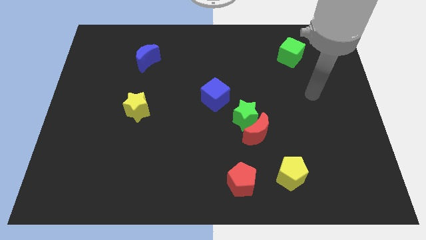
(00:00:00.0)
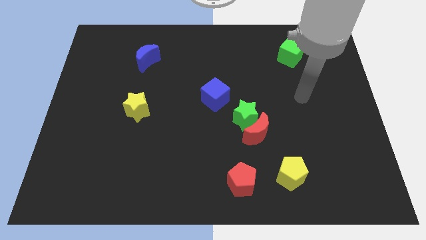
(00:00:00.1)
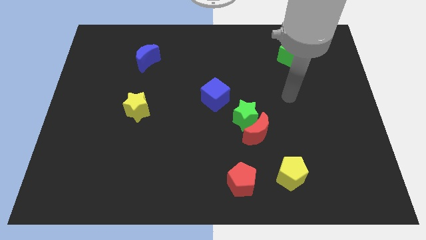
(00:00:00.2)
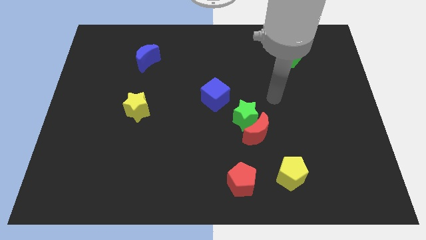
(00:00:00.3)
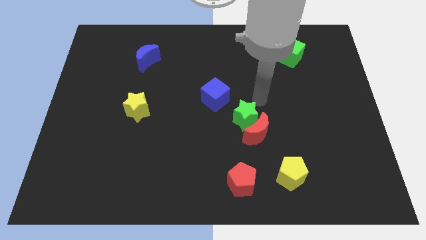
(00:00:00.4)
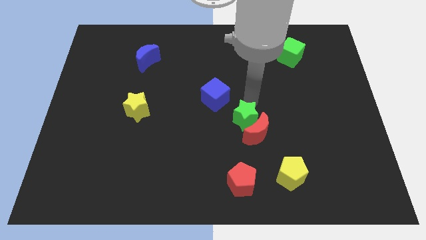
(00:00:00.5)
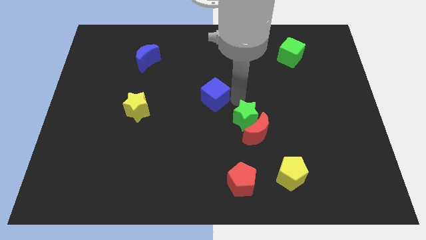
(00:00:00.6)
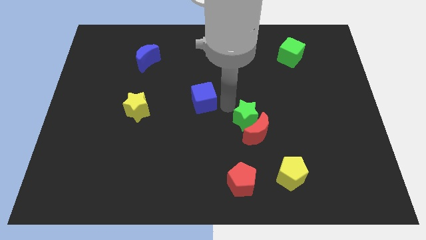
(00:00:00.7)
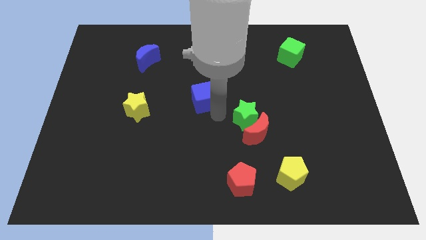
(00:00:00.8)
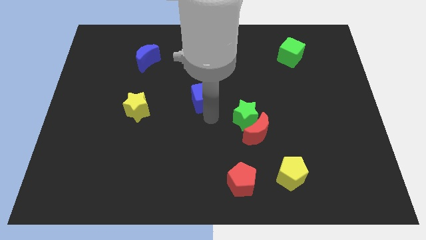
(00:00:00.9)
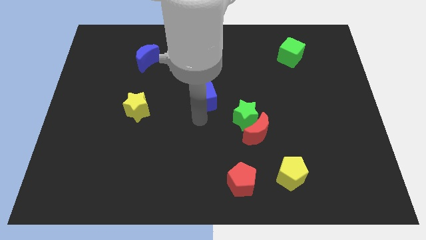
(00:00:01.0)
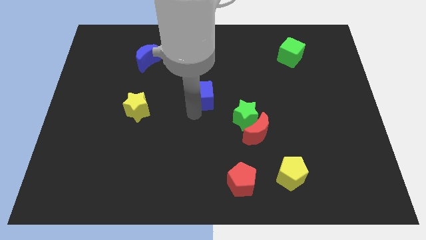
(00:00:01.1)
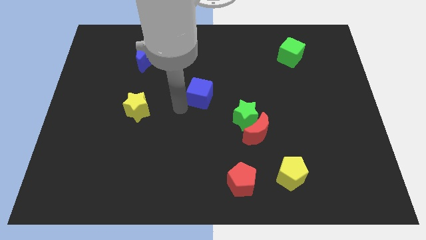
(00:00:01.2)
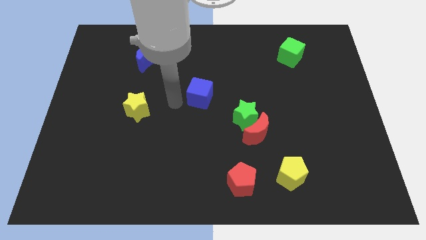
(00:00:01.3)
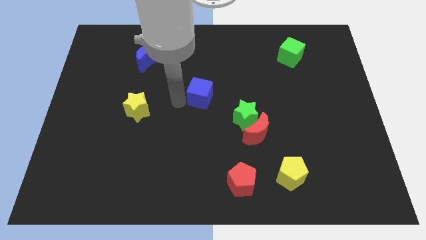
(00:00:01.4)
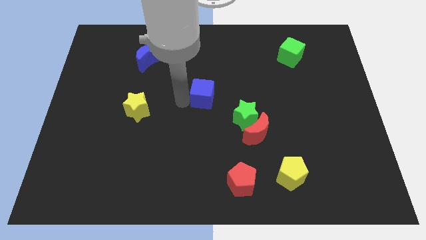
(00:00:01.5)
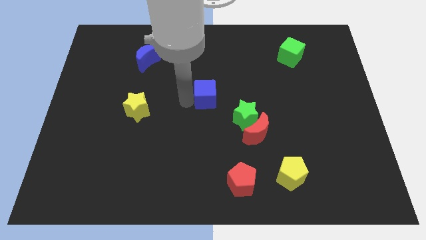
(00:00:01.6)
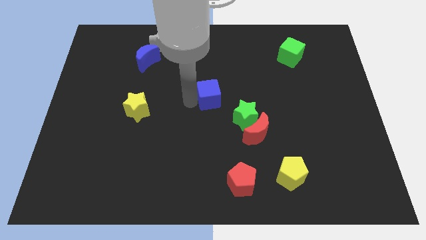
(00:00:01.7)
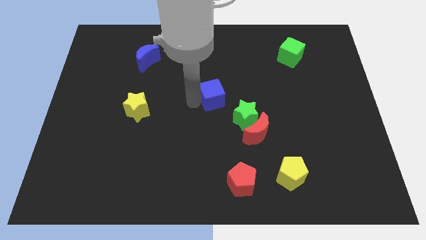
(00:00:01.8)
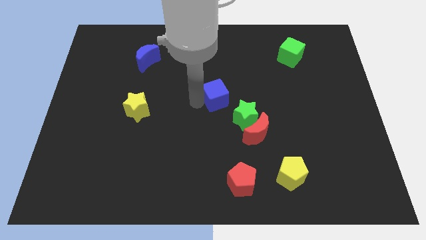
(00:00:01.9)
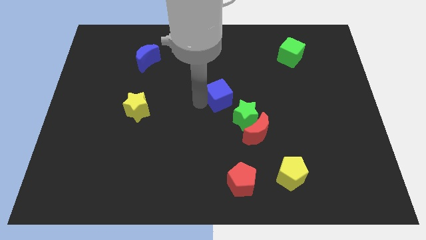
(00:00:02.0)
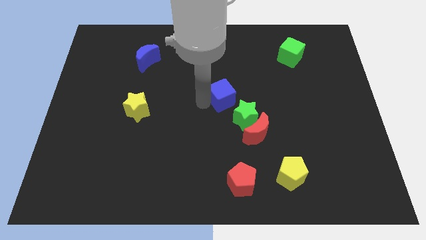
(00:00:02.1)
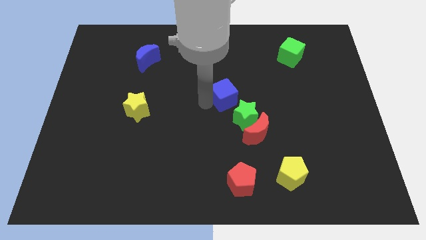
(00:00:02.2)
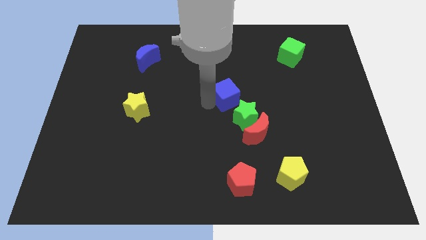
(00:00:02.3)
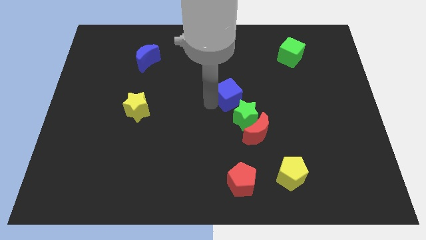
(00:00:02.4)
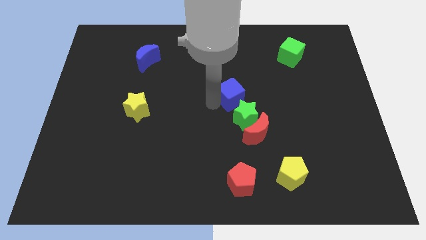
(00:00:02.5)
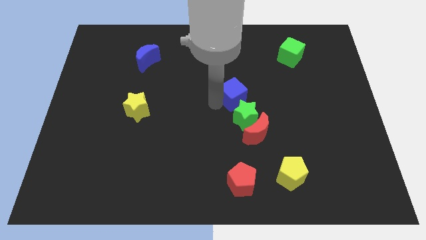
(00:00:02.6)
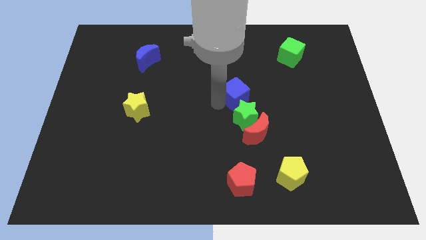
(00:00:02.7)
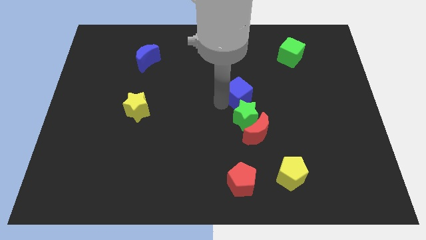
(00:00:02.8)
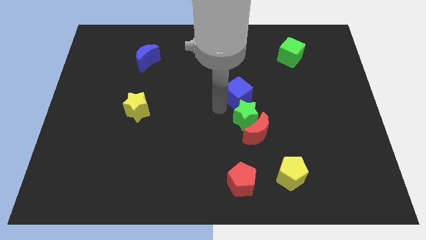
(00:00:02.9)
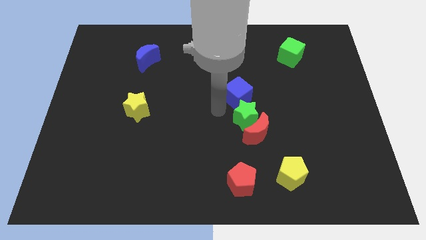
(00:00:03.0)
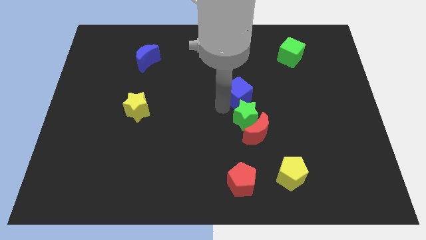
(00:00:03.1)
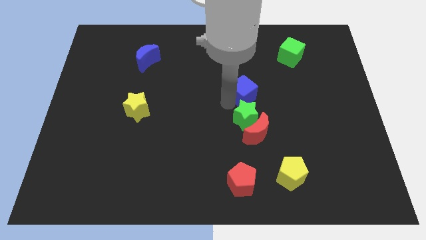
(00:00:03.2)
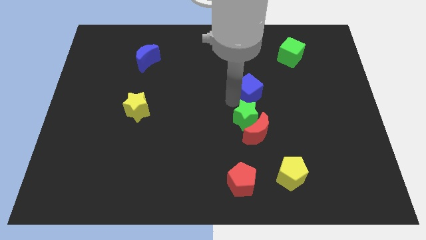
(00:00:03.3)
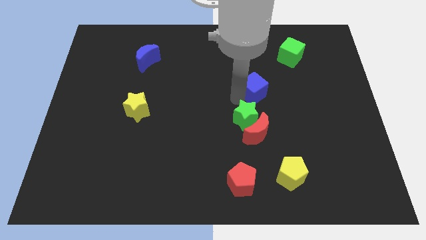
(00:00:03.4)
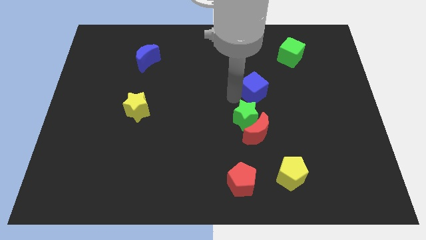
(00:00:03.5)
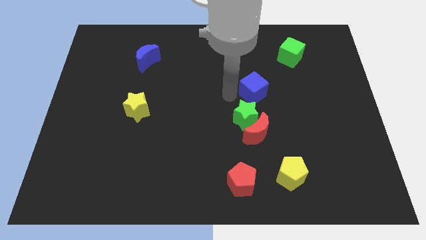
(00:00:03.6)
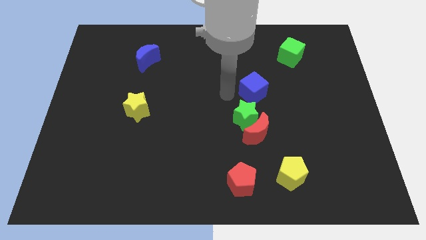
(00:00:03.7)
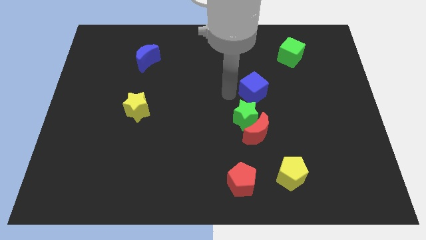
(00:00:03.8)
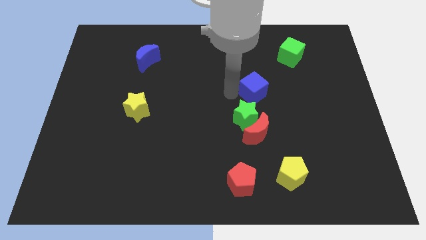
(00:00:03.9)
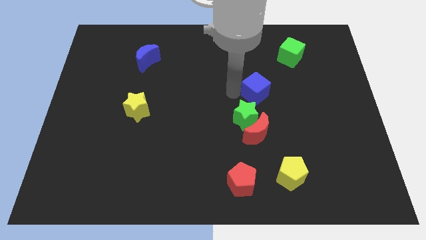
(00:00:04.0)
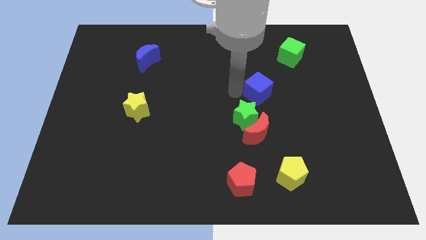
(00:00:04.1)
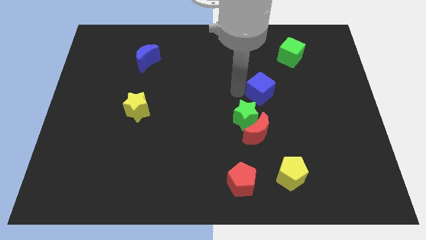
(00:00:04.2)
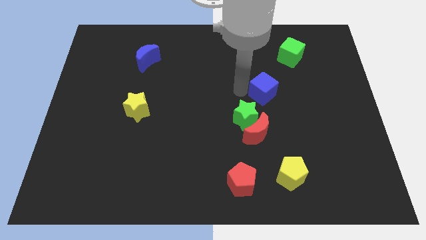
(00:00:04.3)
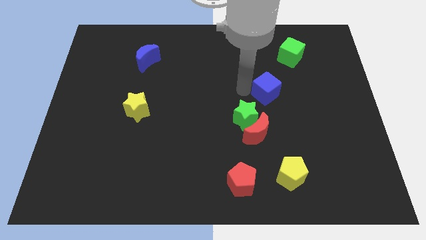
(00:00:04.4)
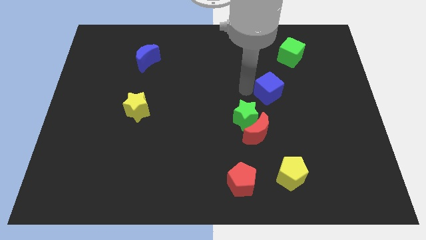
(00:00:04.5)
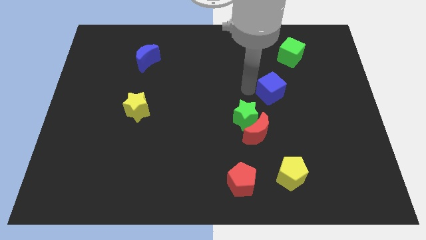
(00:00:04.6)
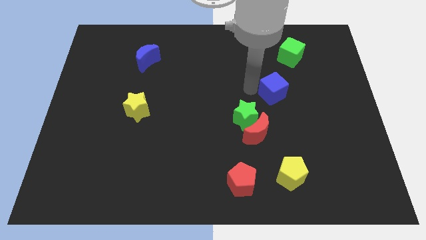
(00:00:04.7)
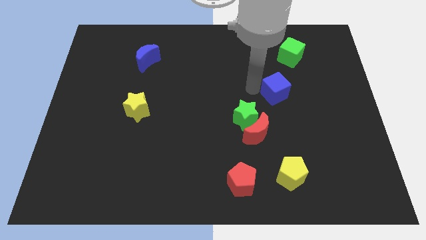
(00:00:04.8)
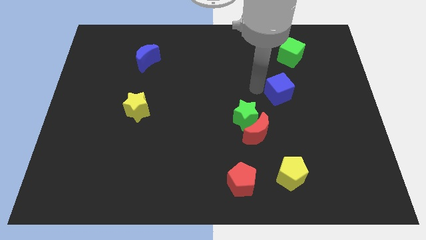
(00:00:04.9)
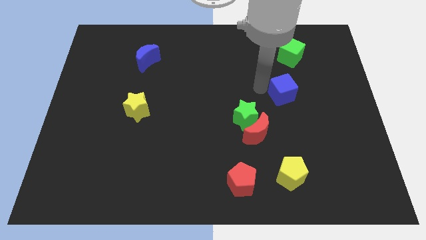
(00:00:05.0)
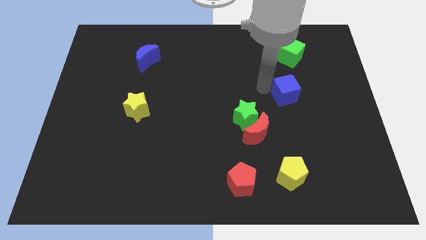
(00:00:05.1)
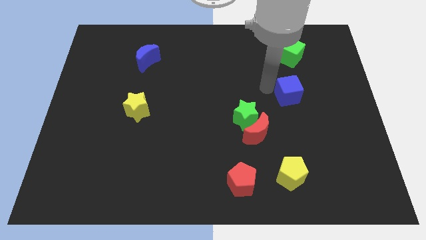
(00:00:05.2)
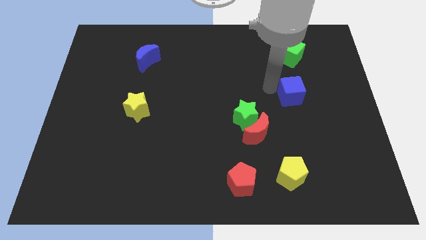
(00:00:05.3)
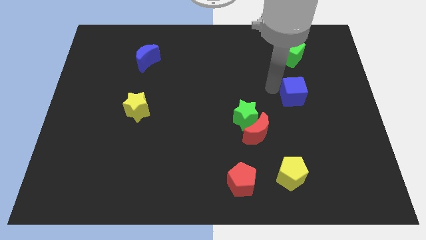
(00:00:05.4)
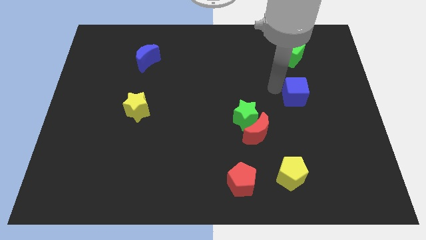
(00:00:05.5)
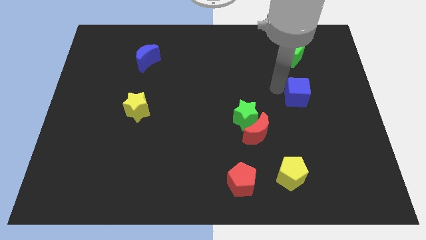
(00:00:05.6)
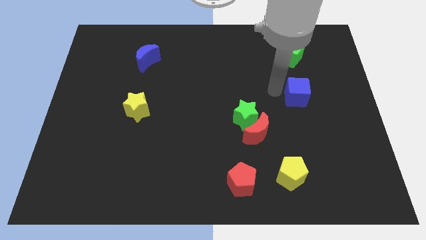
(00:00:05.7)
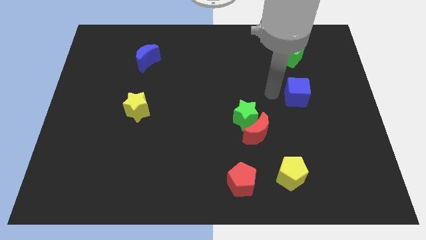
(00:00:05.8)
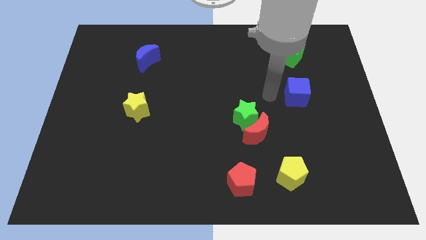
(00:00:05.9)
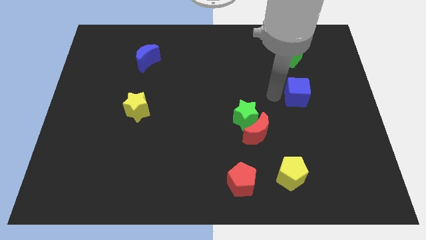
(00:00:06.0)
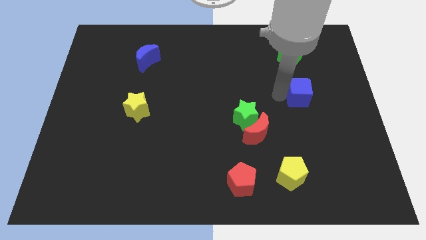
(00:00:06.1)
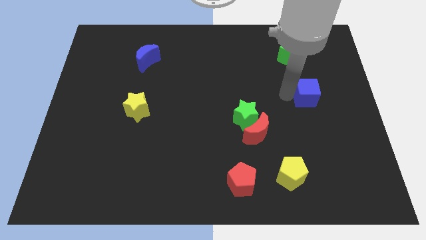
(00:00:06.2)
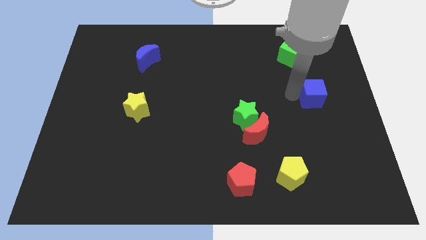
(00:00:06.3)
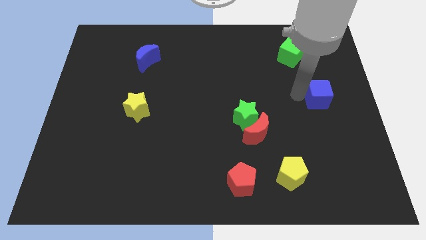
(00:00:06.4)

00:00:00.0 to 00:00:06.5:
push the blue cube to the center right
